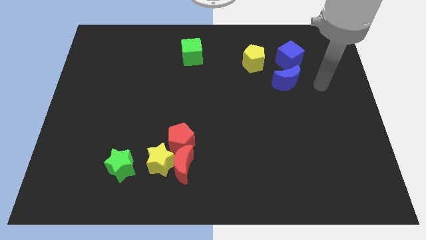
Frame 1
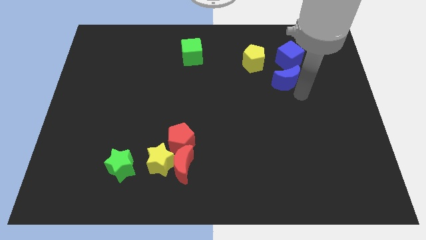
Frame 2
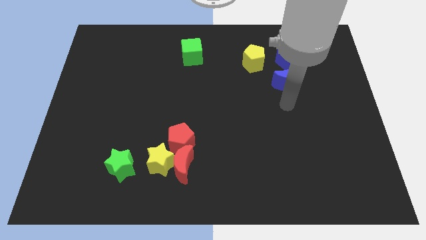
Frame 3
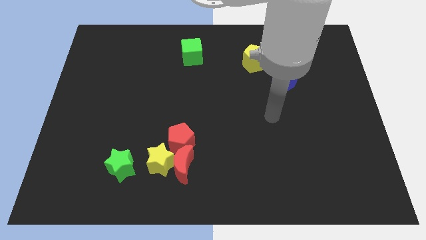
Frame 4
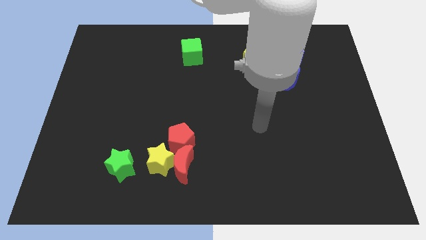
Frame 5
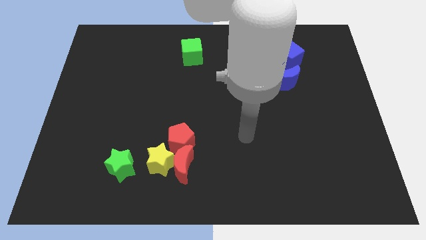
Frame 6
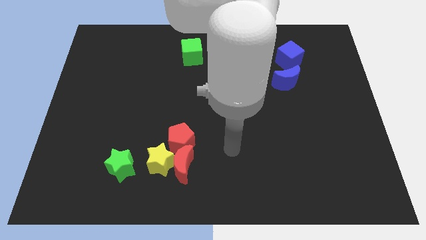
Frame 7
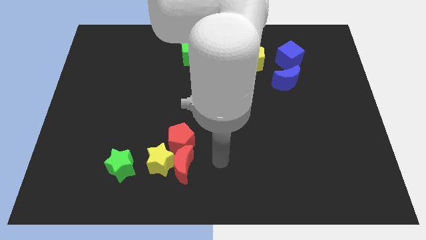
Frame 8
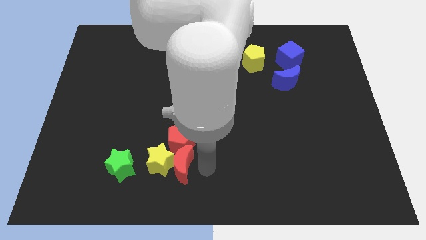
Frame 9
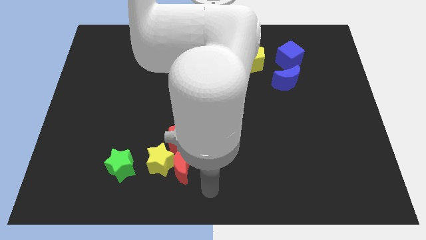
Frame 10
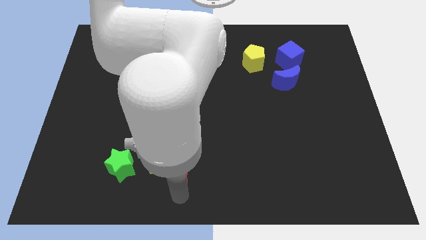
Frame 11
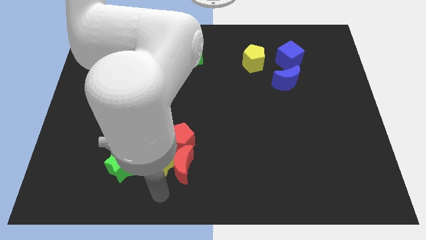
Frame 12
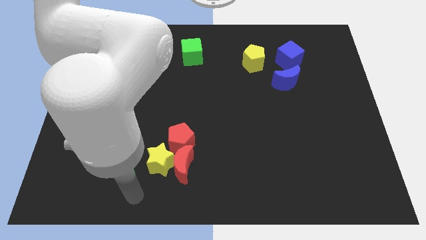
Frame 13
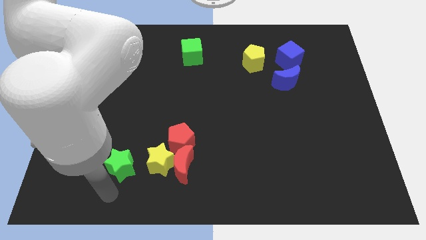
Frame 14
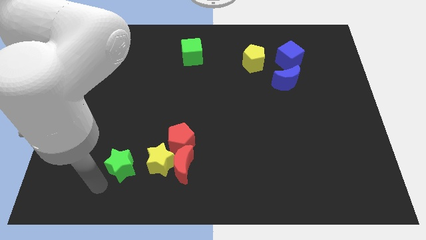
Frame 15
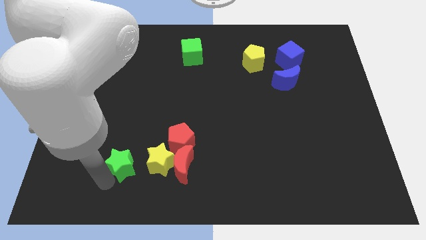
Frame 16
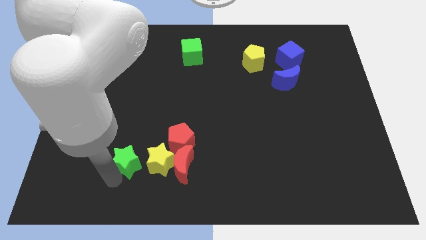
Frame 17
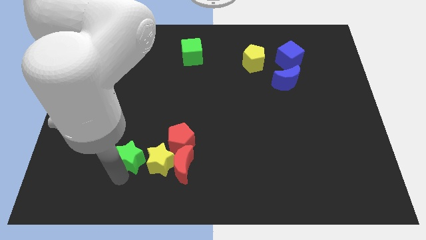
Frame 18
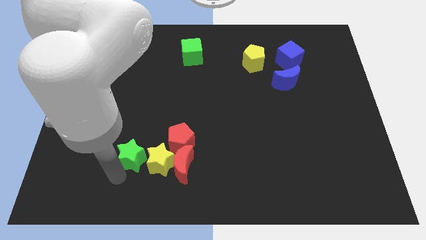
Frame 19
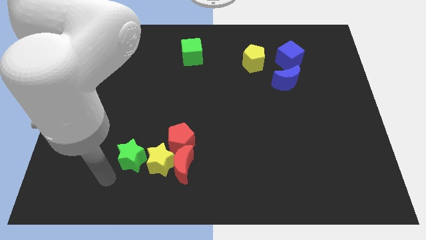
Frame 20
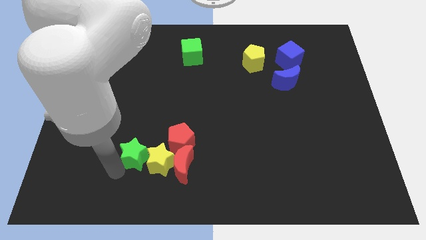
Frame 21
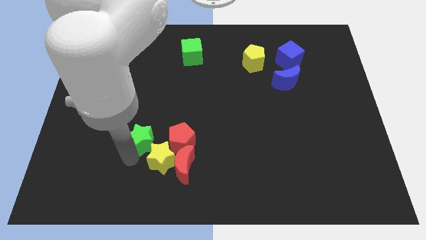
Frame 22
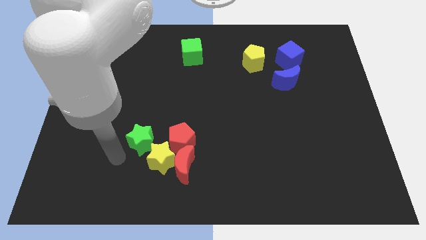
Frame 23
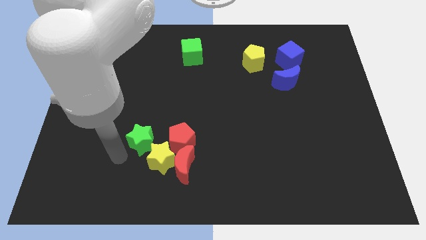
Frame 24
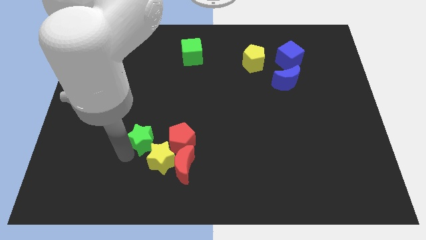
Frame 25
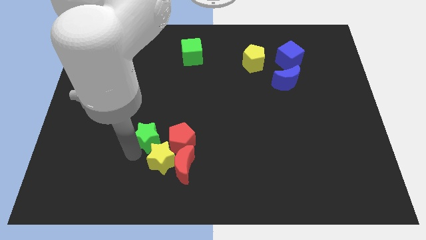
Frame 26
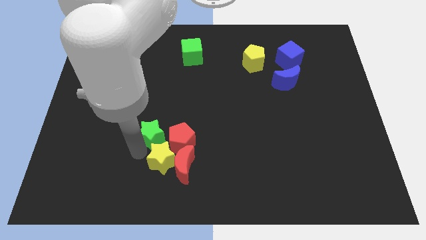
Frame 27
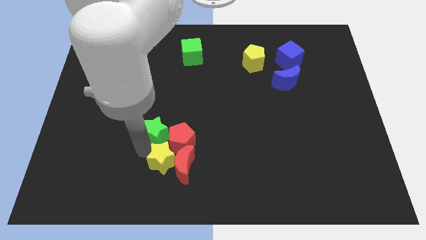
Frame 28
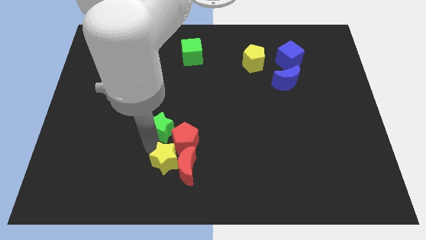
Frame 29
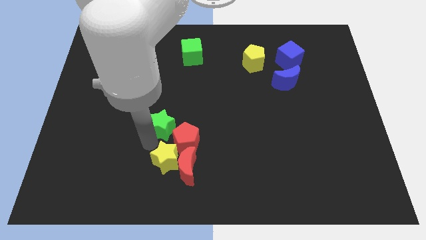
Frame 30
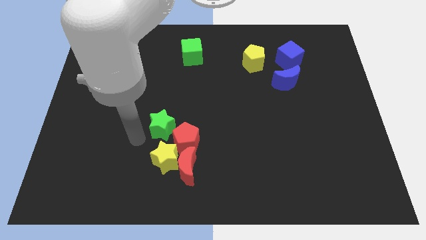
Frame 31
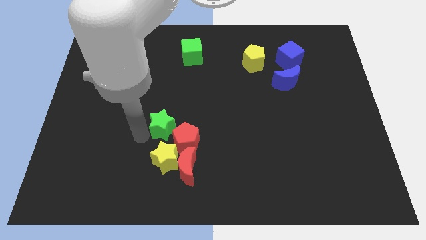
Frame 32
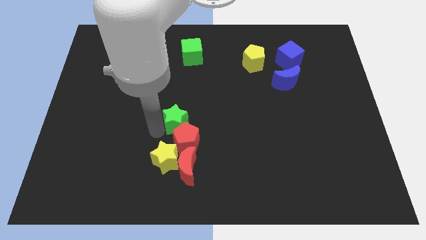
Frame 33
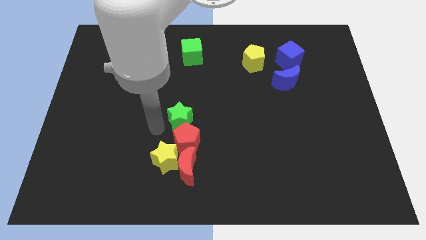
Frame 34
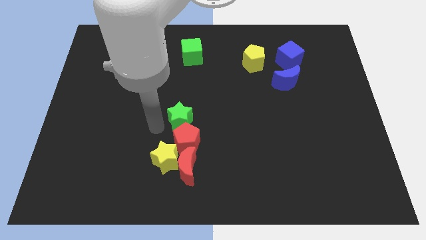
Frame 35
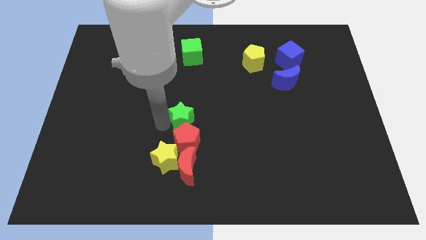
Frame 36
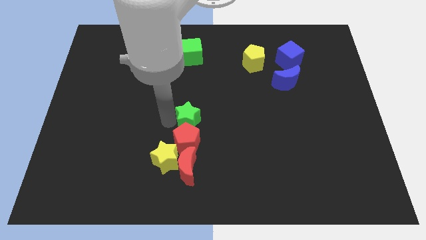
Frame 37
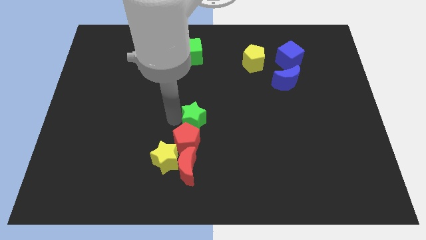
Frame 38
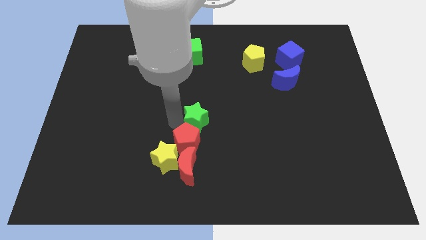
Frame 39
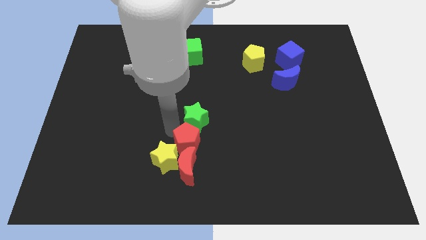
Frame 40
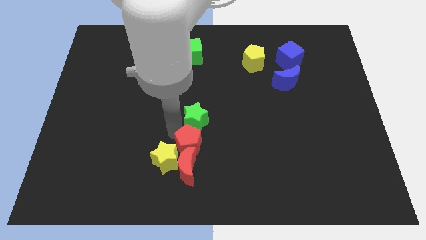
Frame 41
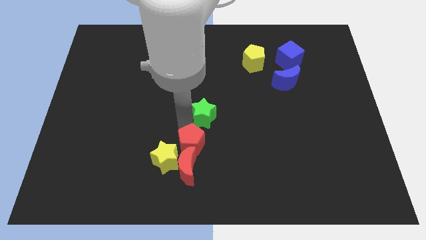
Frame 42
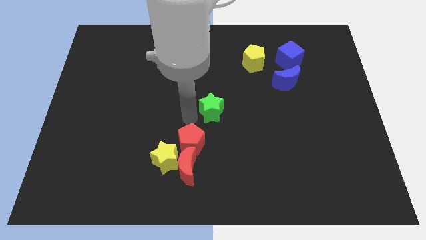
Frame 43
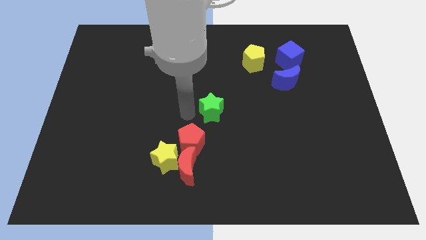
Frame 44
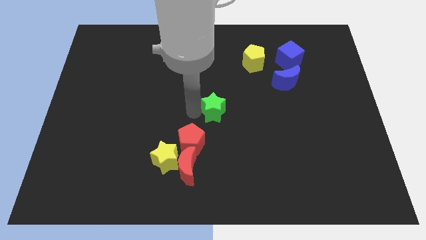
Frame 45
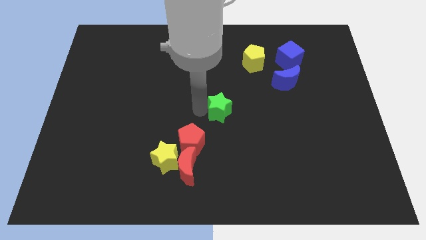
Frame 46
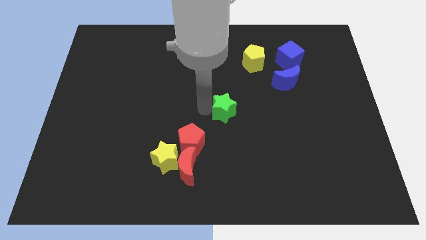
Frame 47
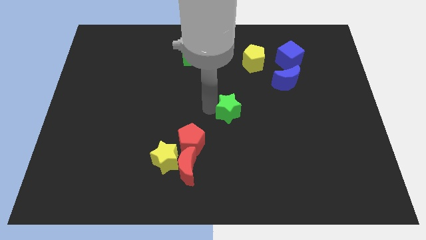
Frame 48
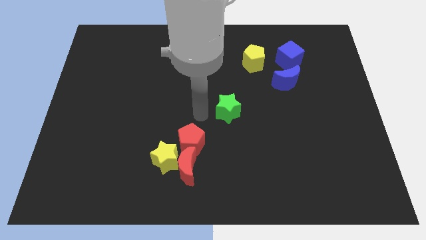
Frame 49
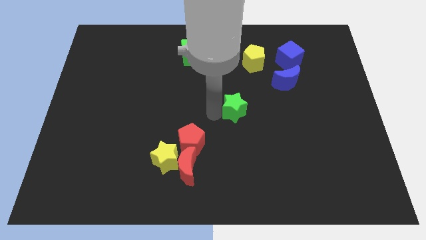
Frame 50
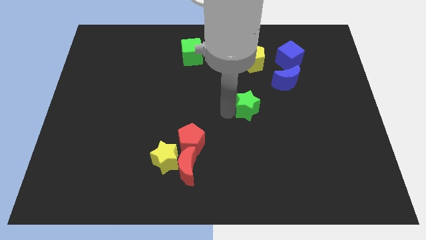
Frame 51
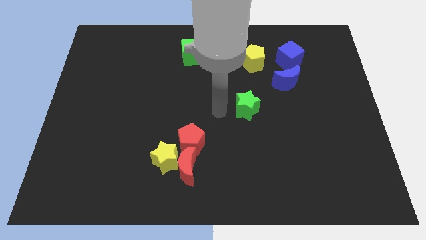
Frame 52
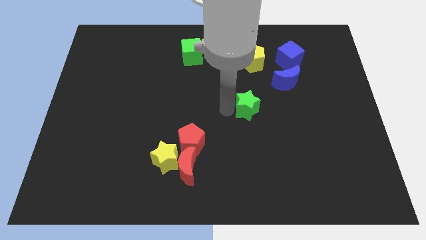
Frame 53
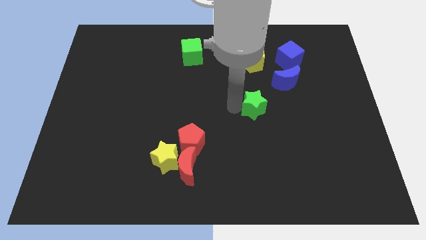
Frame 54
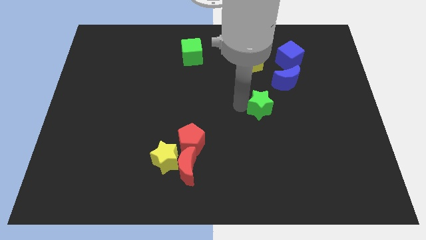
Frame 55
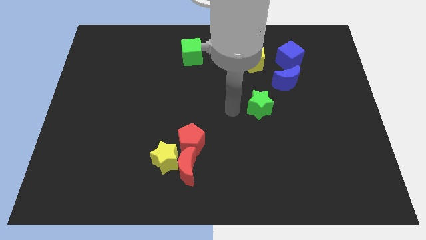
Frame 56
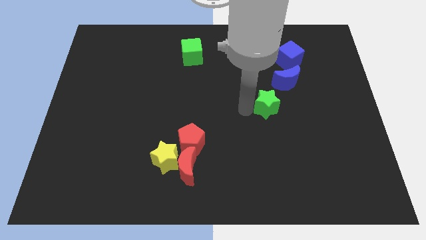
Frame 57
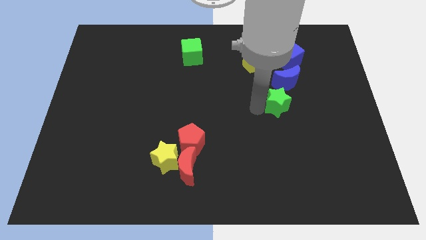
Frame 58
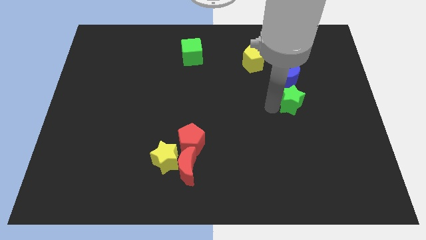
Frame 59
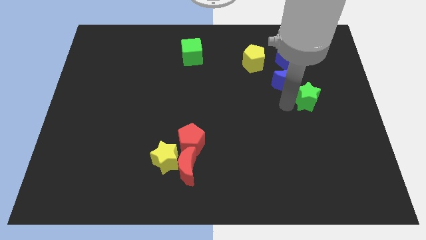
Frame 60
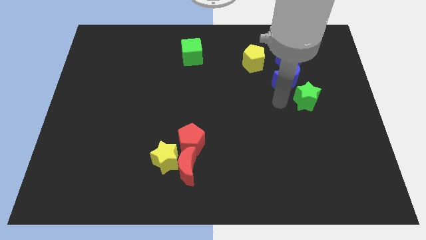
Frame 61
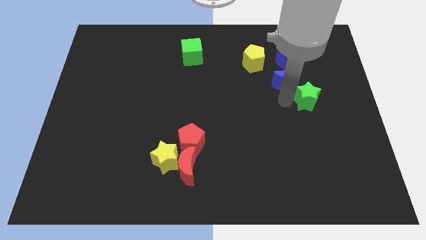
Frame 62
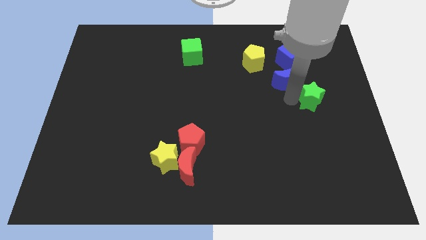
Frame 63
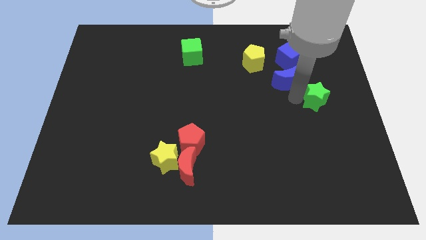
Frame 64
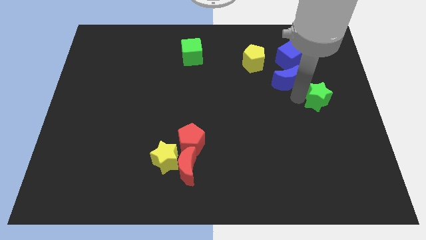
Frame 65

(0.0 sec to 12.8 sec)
push the green star to the right side of the board
